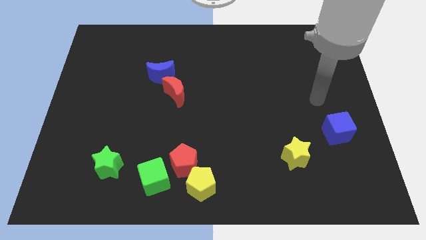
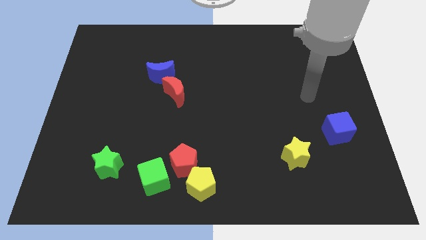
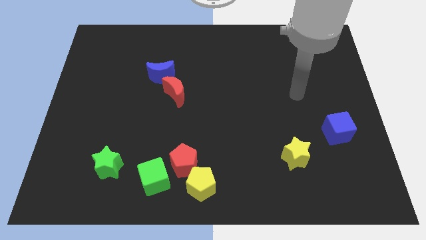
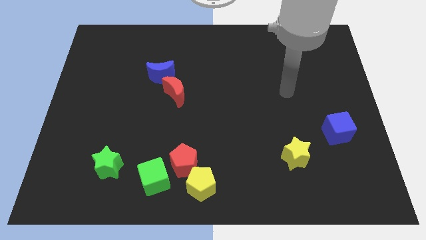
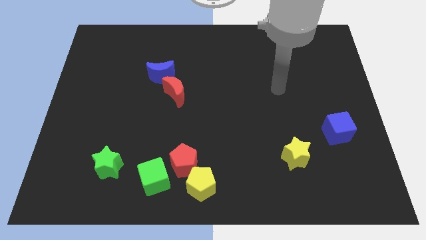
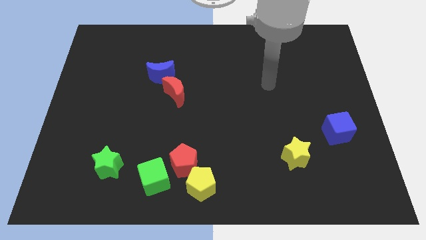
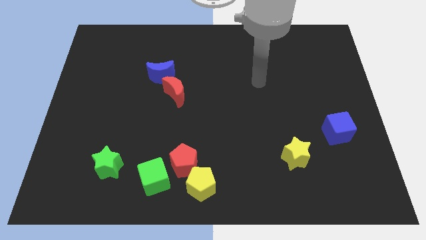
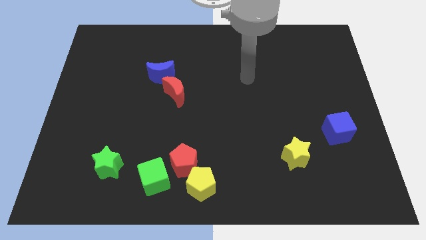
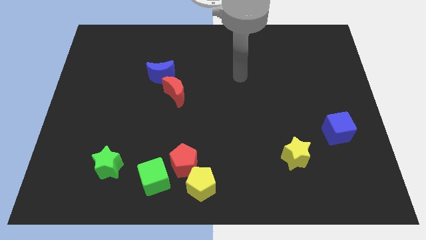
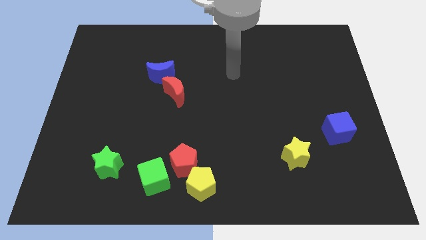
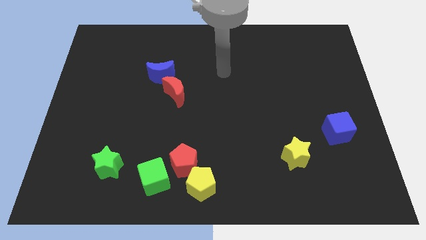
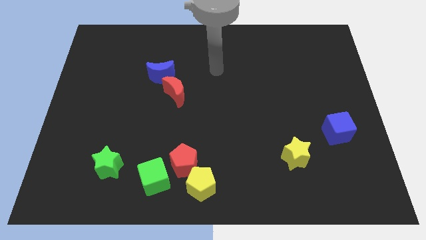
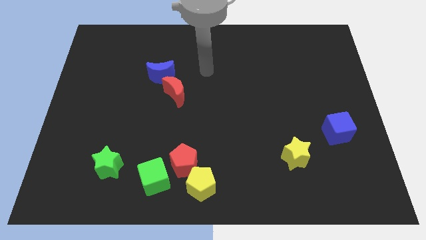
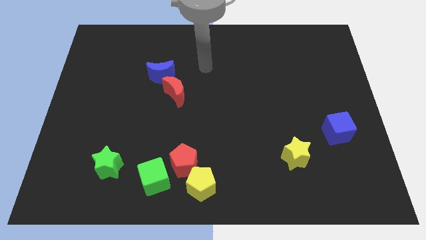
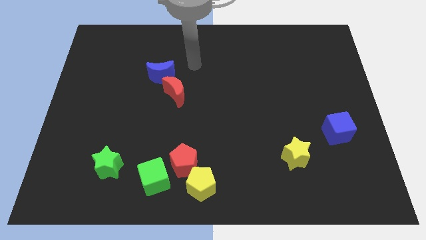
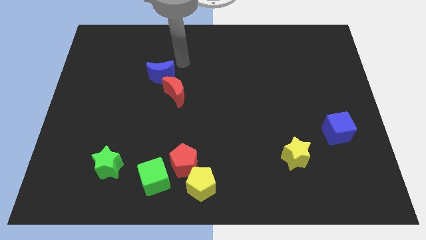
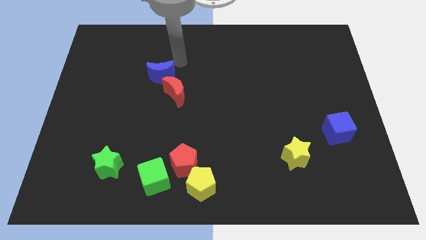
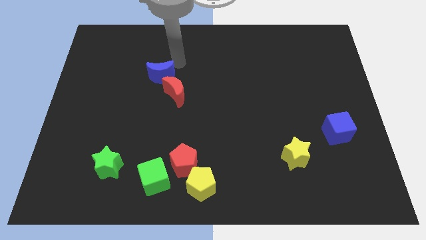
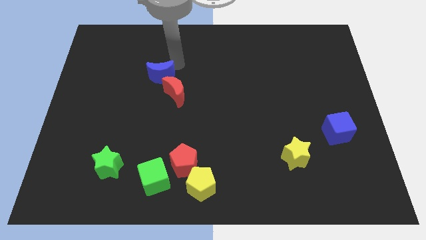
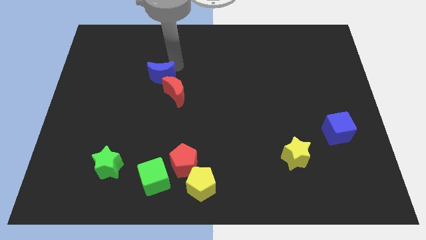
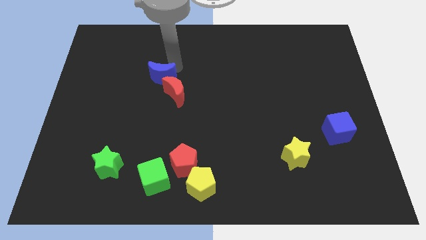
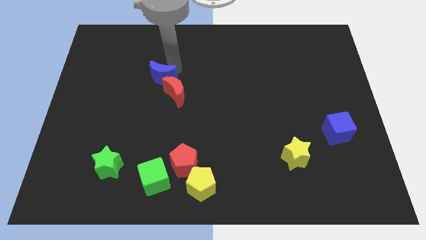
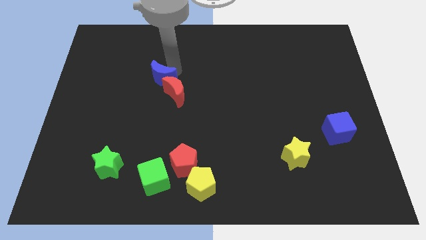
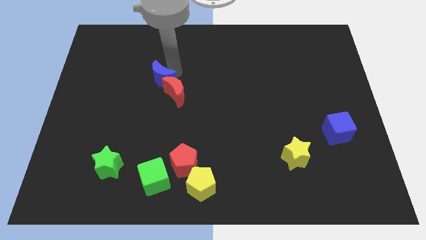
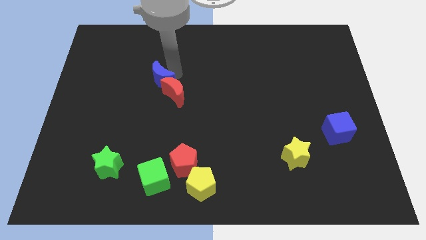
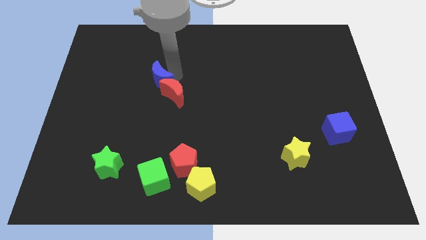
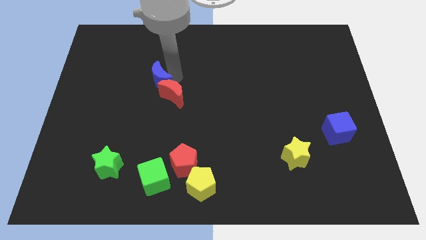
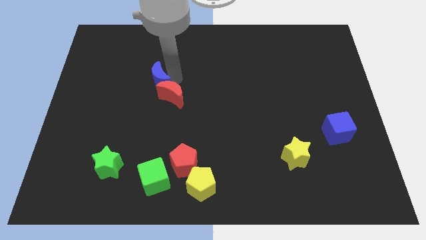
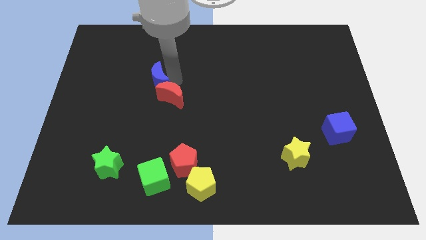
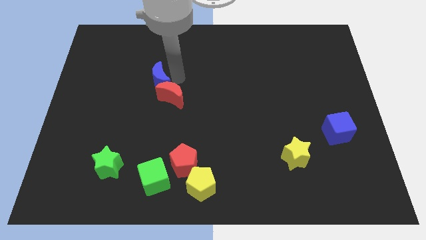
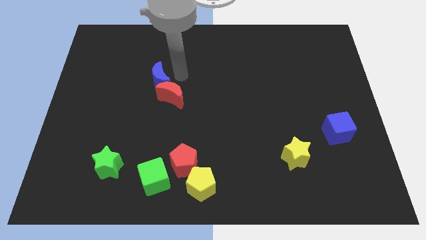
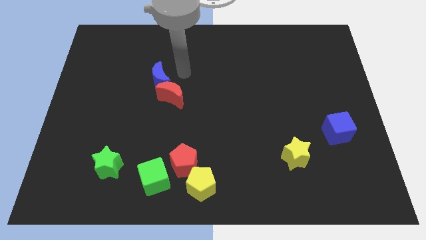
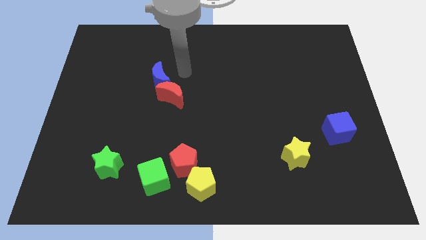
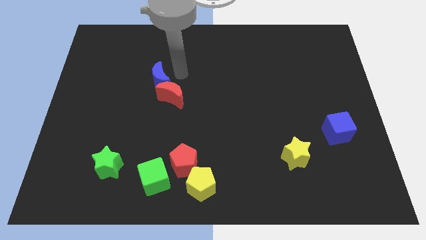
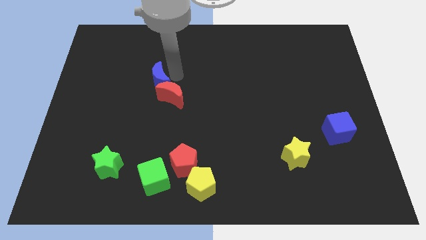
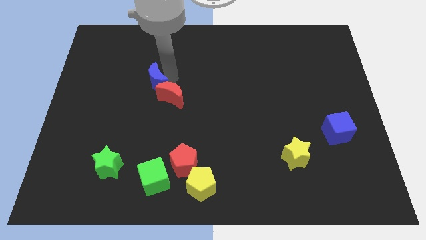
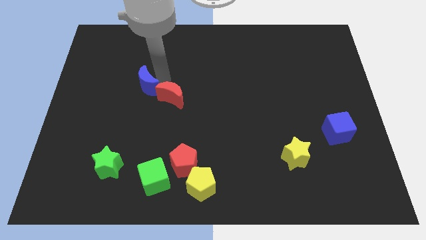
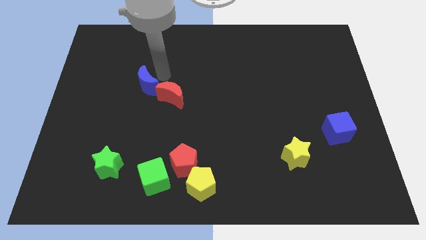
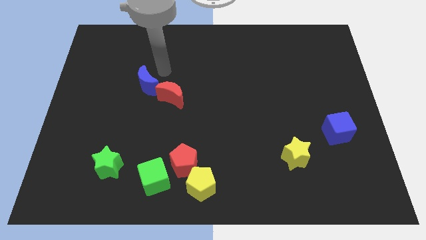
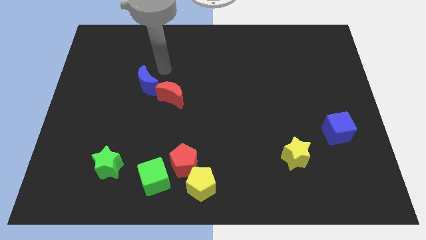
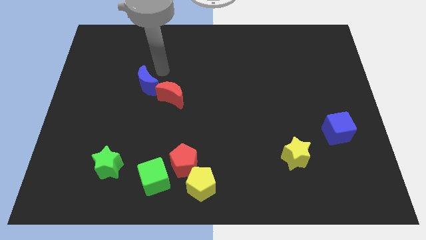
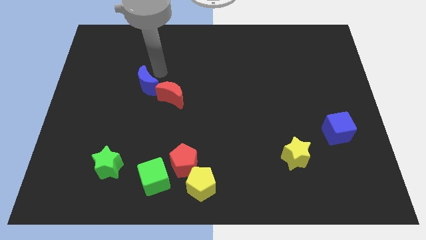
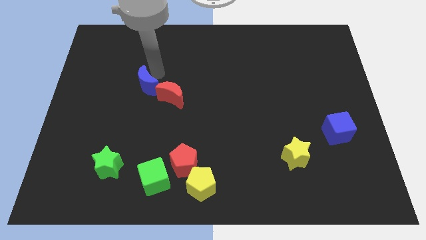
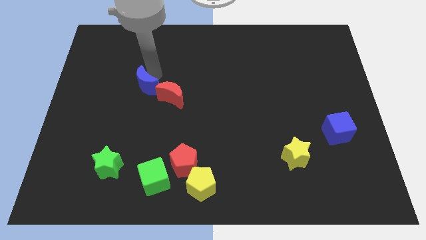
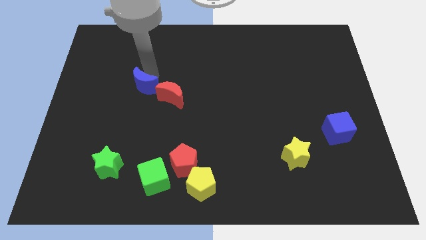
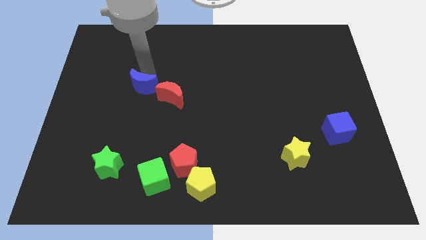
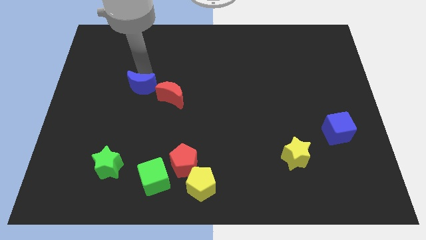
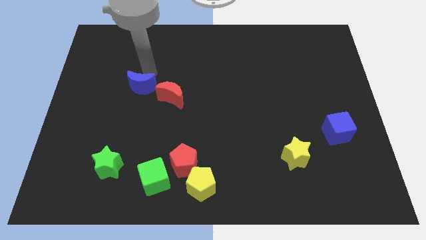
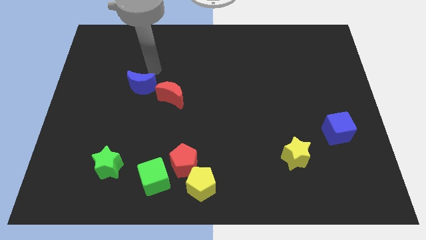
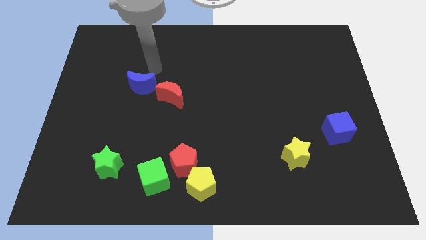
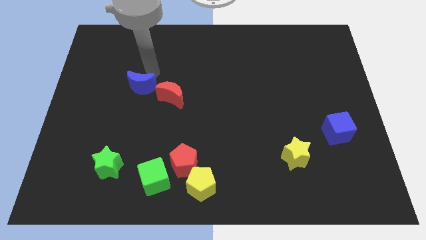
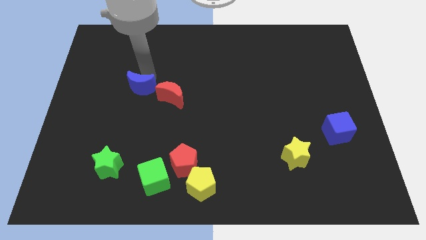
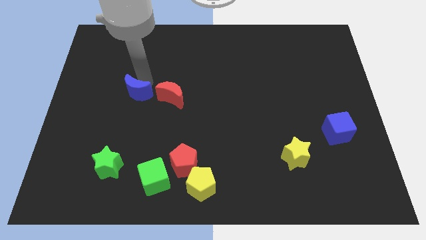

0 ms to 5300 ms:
slide the blue moon a bit diagonally downwards and left

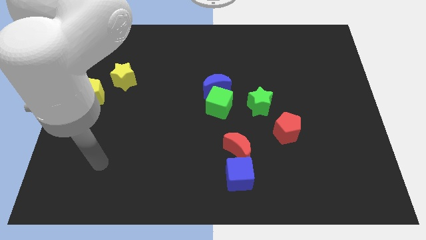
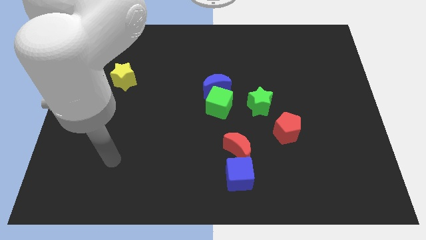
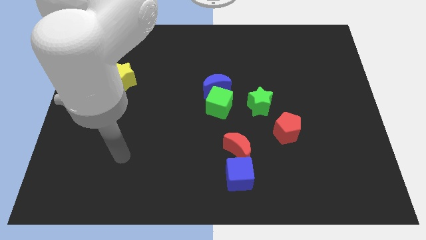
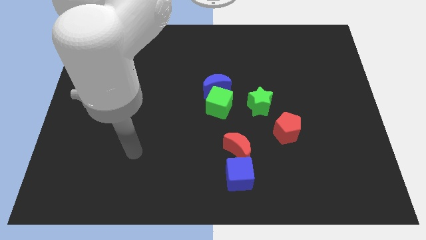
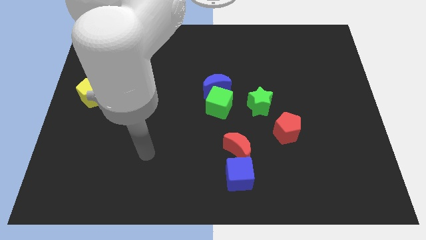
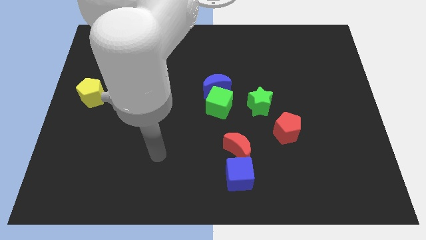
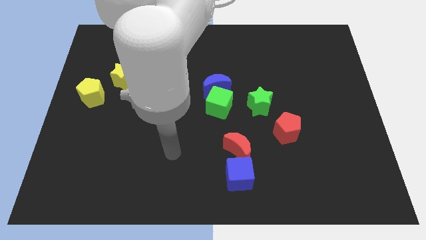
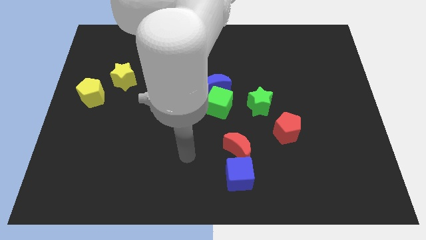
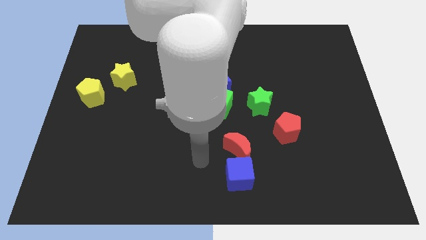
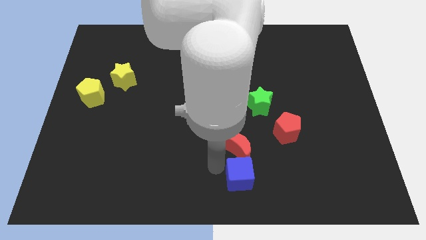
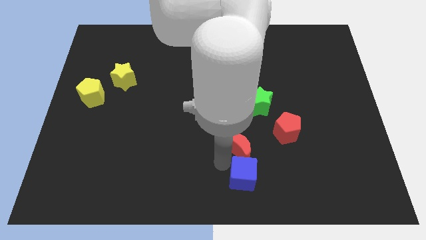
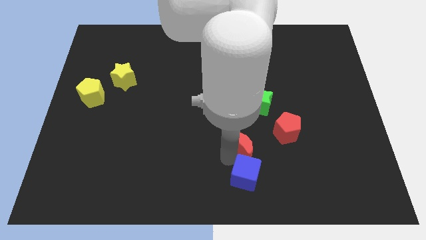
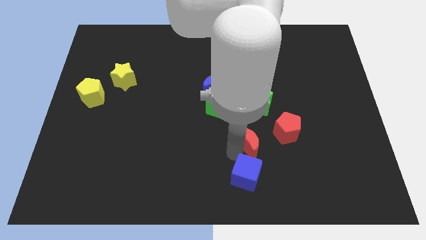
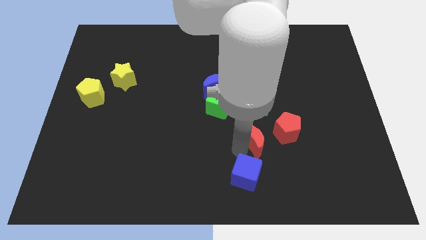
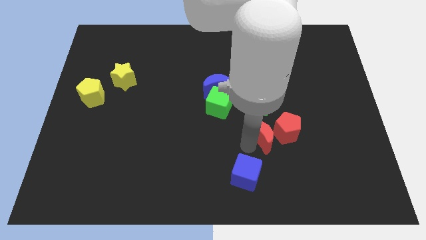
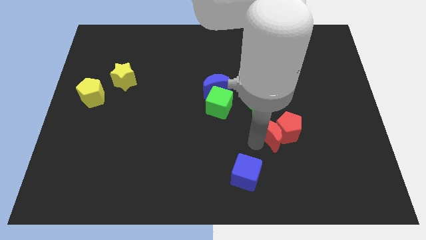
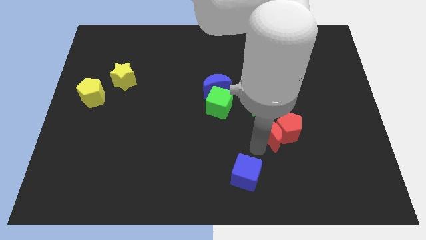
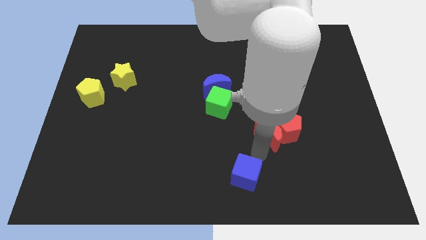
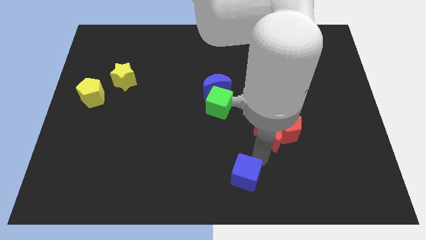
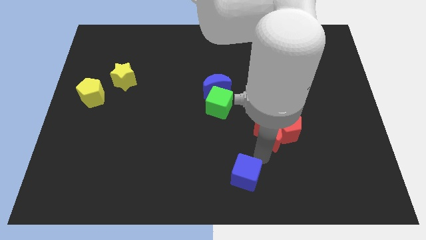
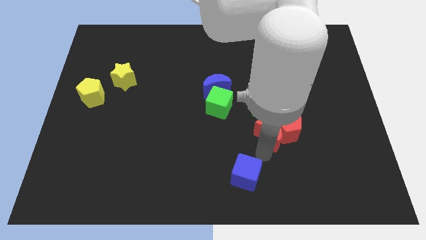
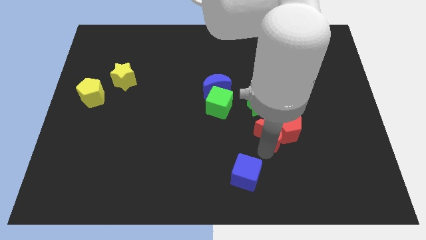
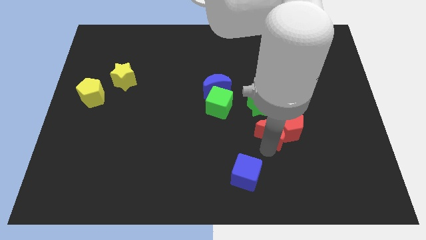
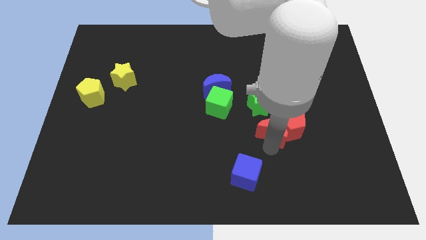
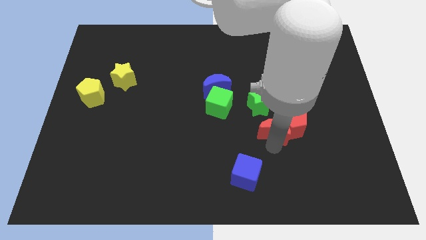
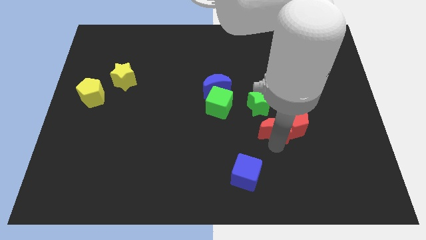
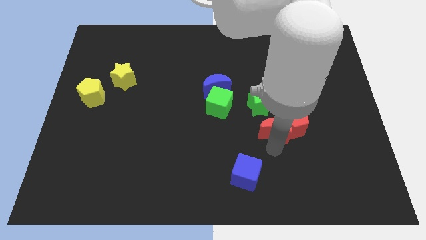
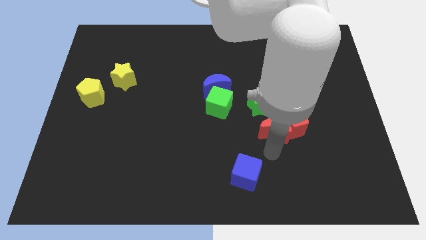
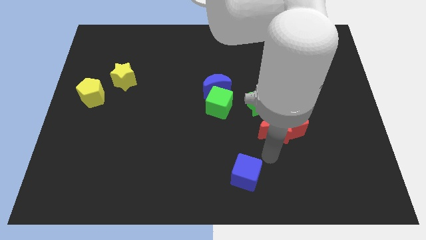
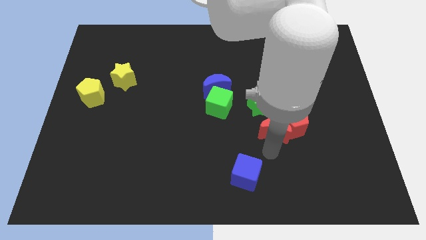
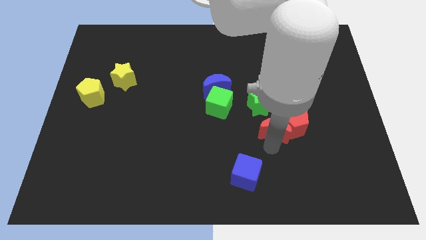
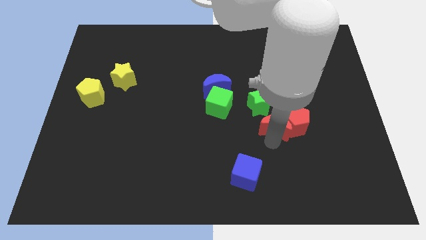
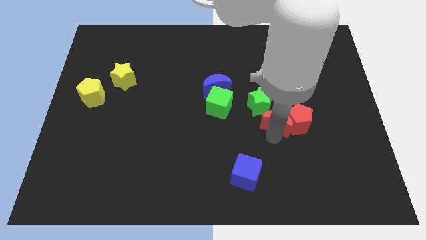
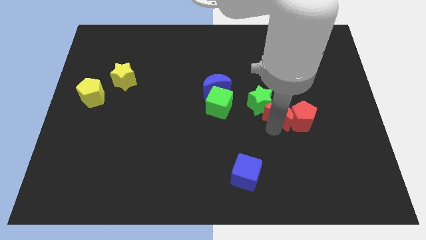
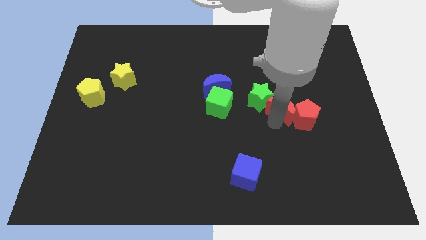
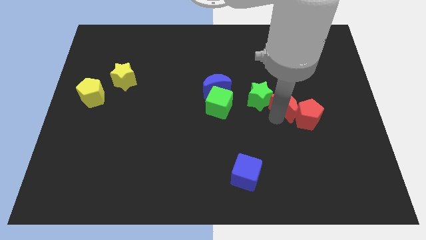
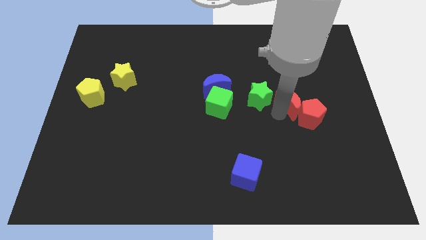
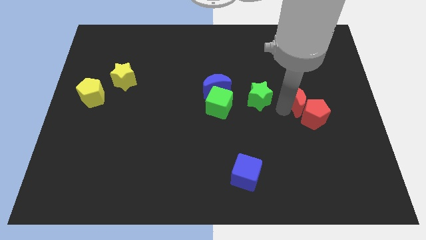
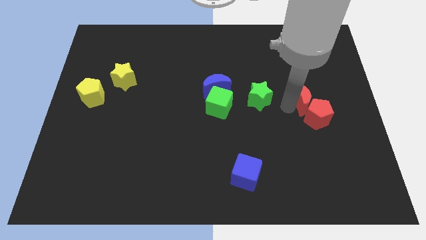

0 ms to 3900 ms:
move the red moon up and to the right
